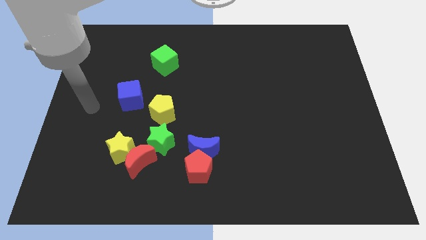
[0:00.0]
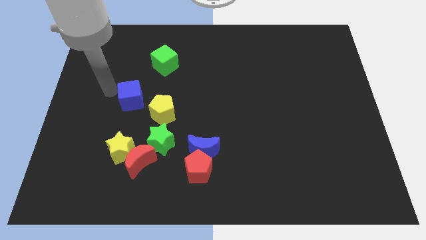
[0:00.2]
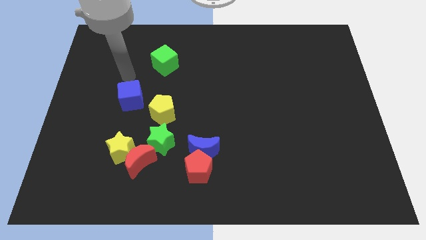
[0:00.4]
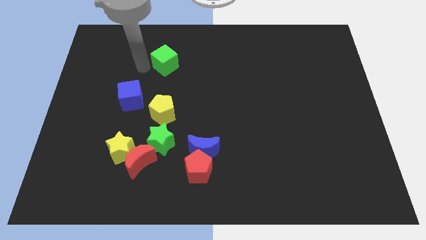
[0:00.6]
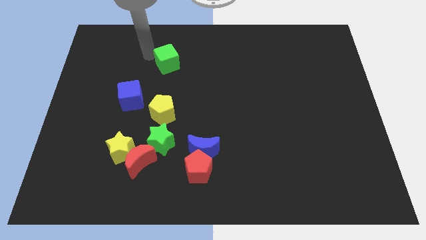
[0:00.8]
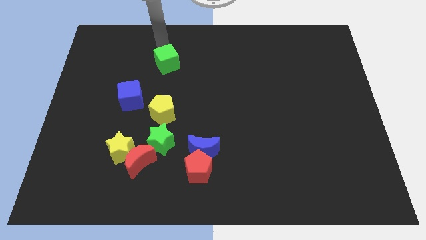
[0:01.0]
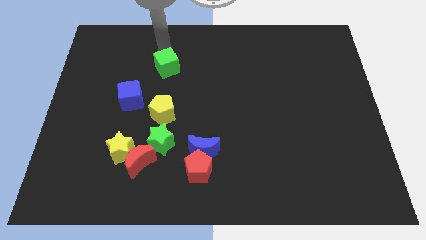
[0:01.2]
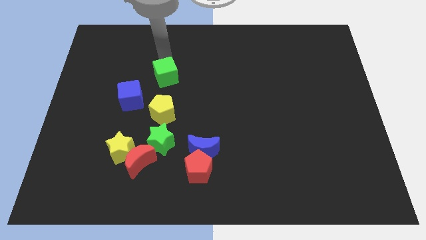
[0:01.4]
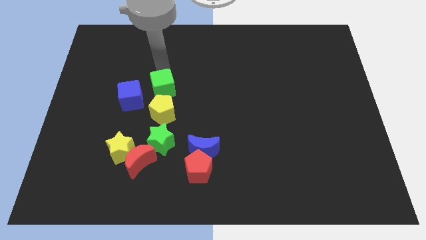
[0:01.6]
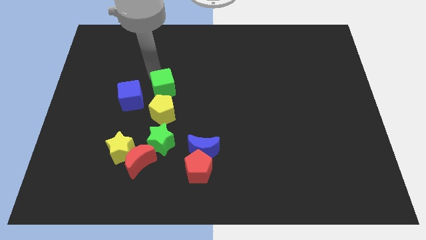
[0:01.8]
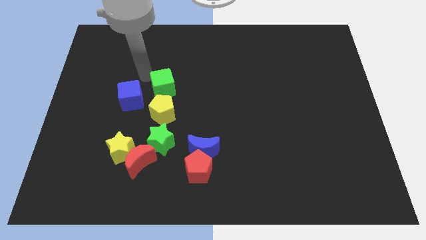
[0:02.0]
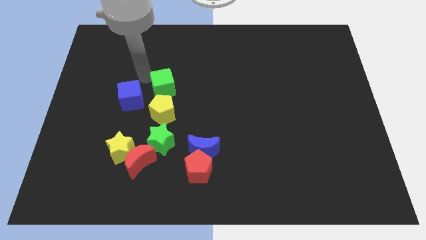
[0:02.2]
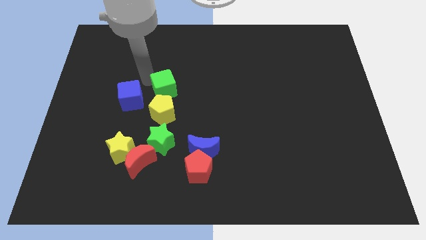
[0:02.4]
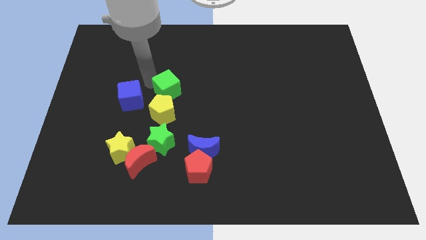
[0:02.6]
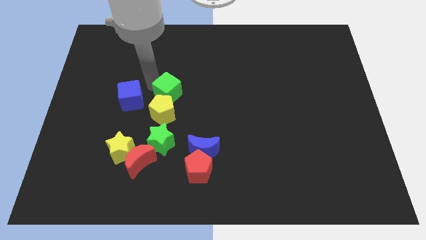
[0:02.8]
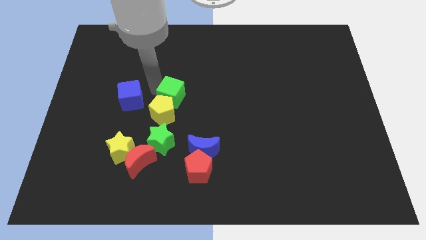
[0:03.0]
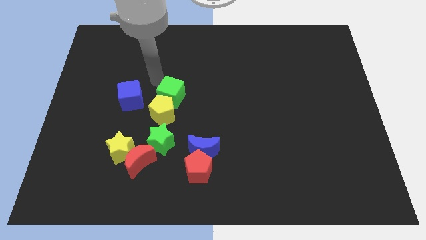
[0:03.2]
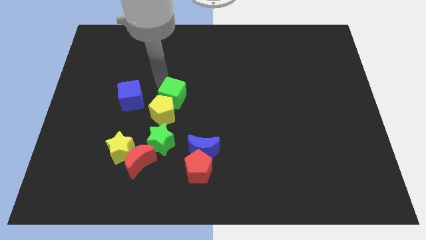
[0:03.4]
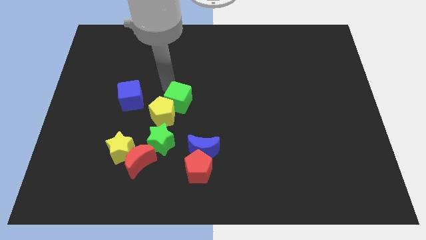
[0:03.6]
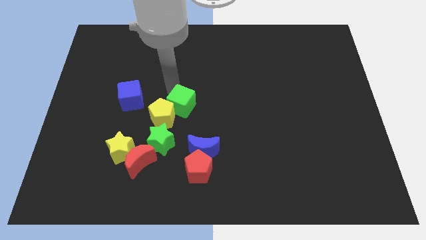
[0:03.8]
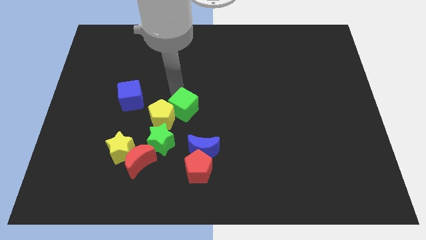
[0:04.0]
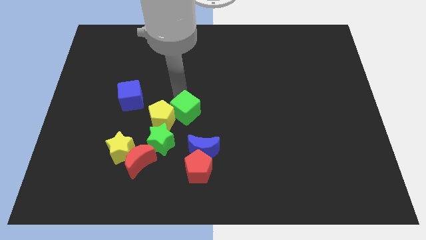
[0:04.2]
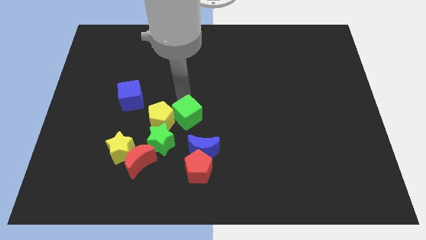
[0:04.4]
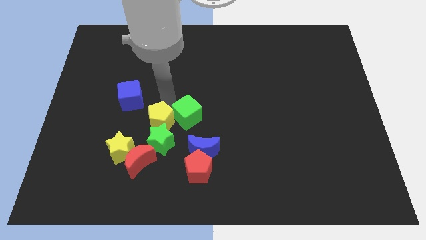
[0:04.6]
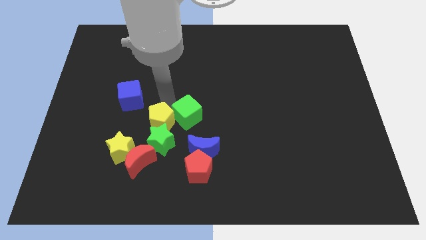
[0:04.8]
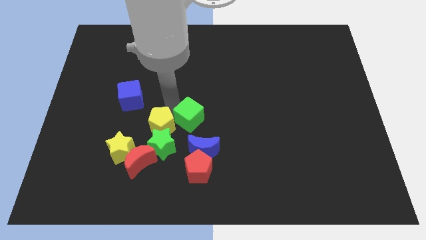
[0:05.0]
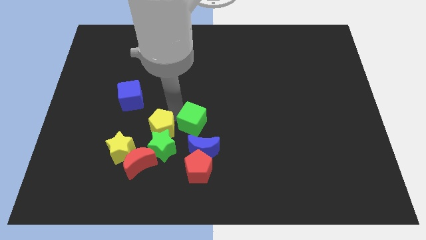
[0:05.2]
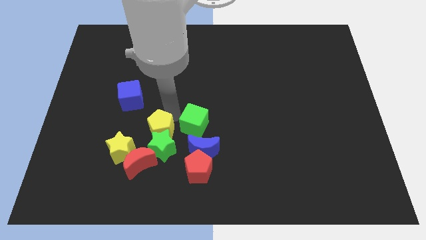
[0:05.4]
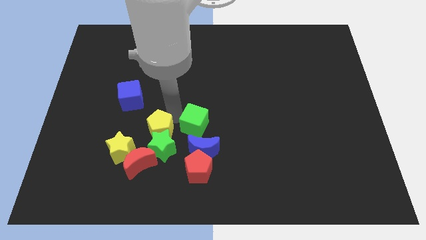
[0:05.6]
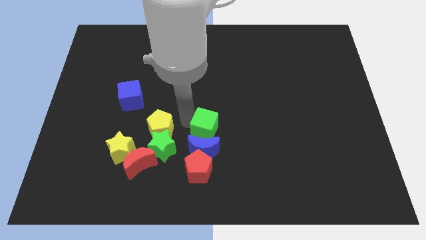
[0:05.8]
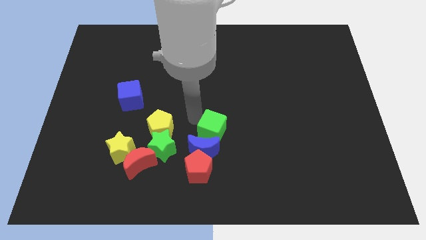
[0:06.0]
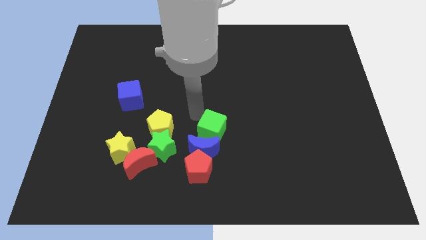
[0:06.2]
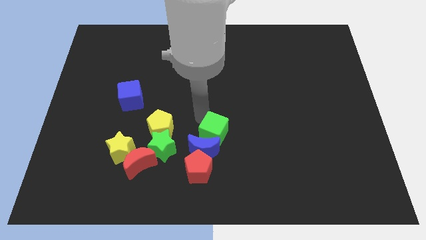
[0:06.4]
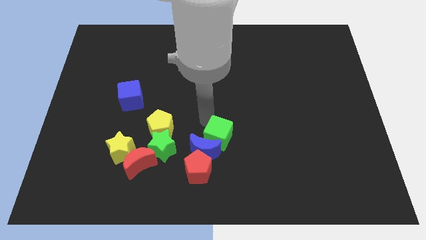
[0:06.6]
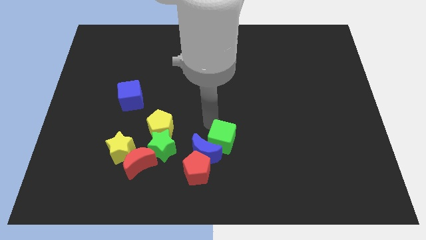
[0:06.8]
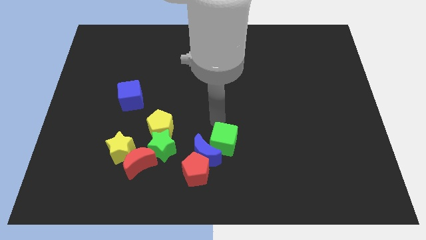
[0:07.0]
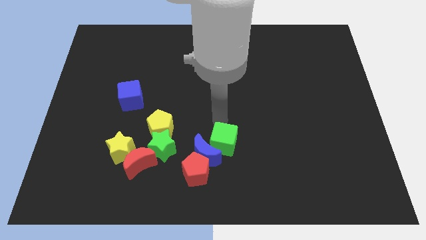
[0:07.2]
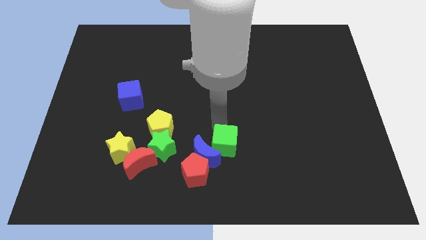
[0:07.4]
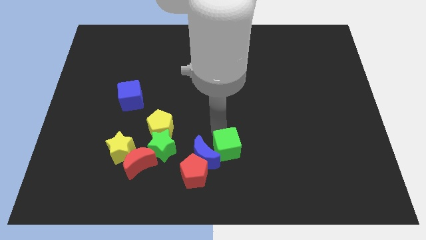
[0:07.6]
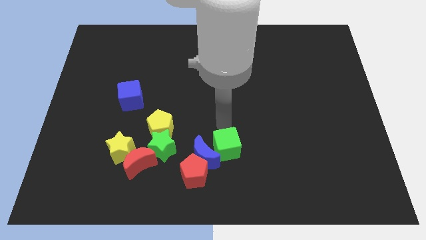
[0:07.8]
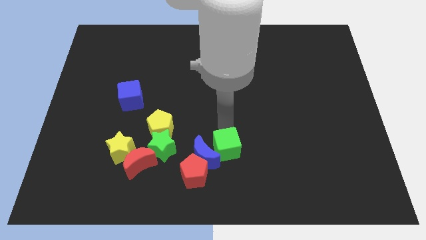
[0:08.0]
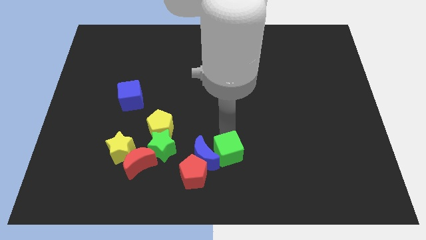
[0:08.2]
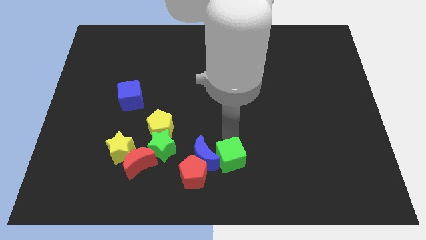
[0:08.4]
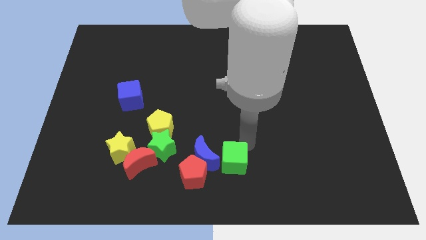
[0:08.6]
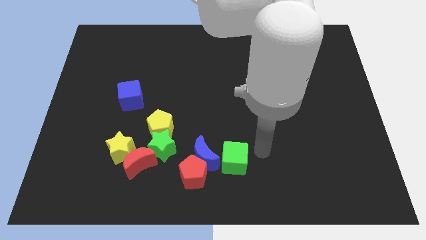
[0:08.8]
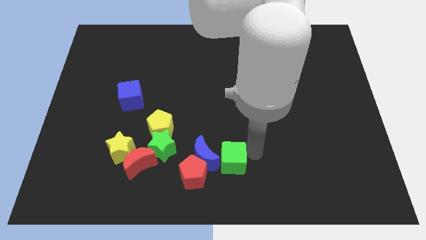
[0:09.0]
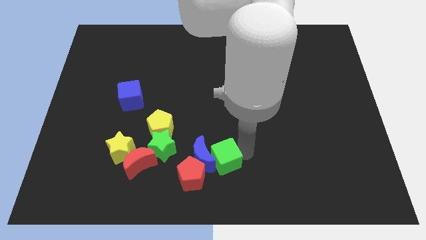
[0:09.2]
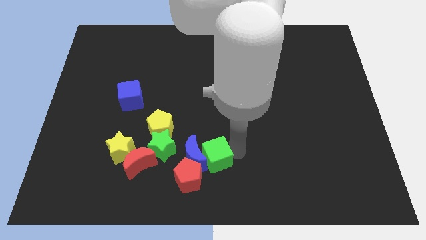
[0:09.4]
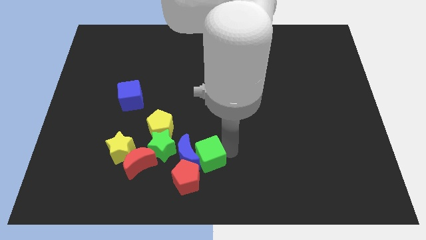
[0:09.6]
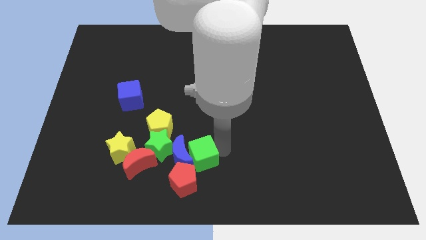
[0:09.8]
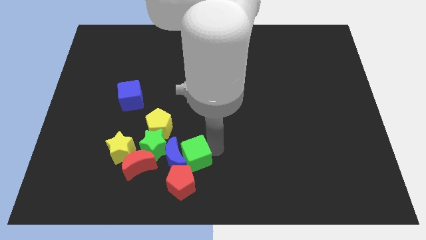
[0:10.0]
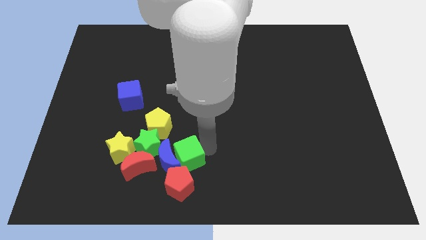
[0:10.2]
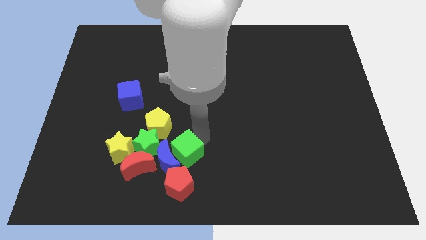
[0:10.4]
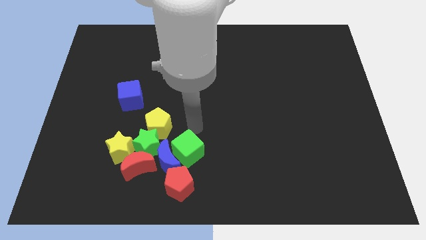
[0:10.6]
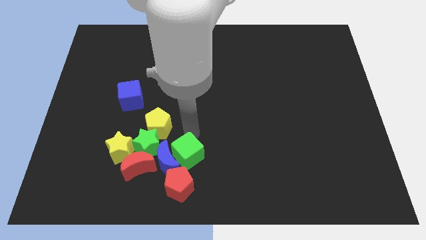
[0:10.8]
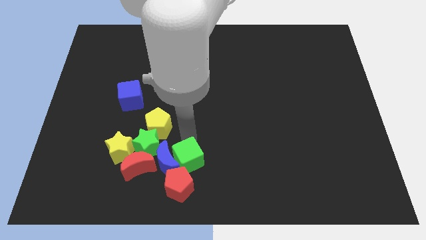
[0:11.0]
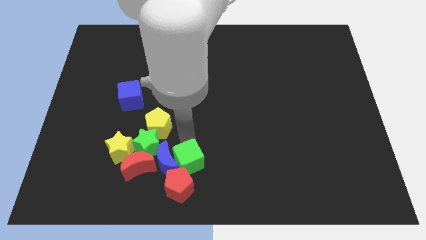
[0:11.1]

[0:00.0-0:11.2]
move the green cube to the red pentagon

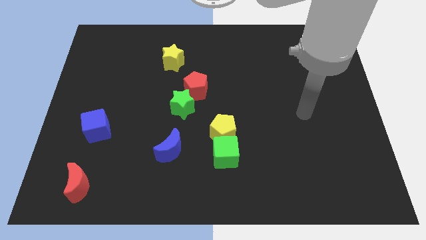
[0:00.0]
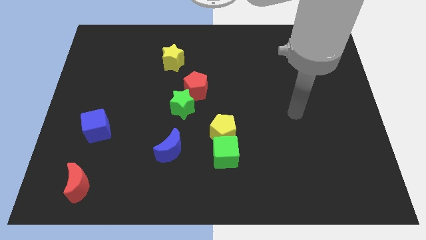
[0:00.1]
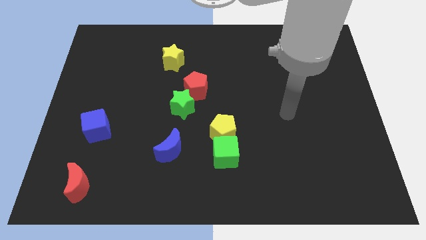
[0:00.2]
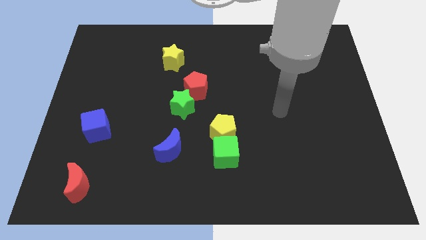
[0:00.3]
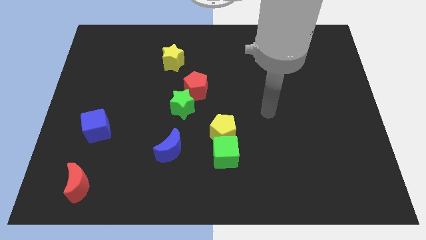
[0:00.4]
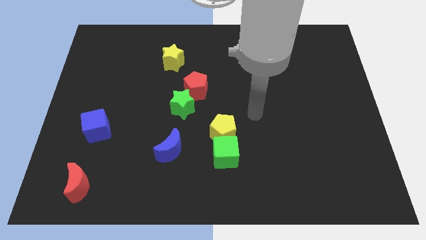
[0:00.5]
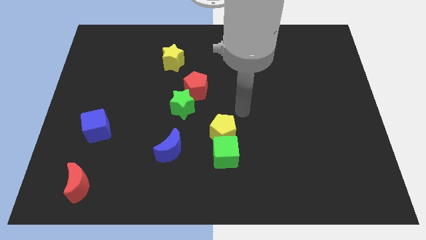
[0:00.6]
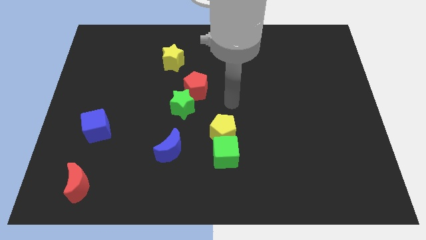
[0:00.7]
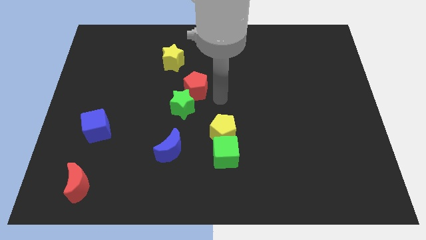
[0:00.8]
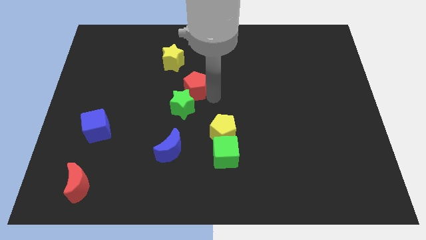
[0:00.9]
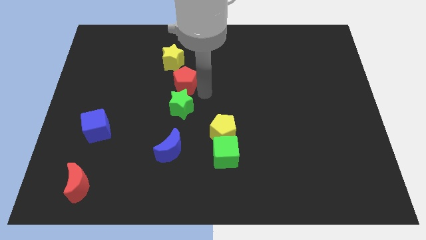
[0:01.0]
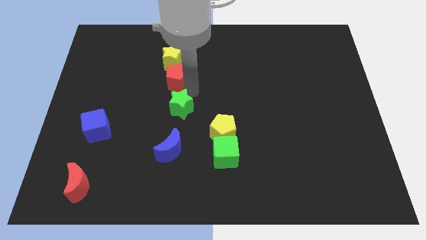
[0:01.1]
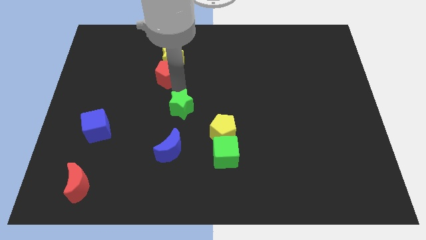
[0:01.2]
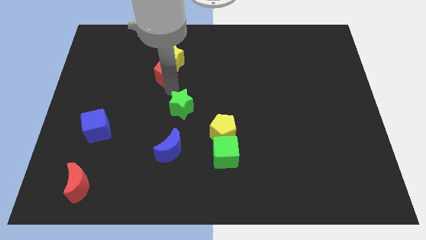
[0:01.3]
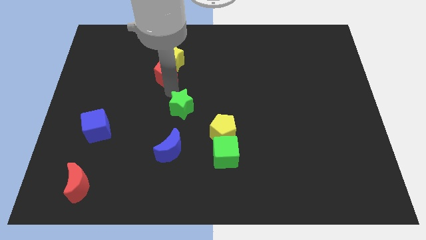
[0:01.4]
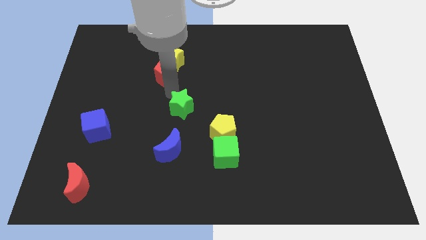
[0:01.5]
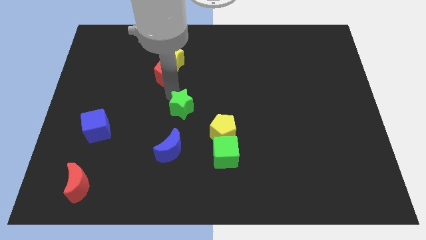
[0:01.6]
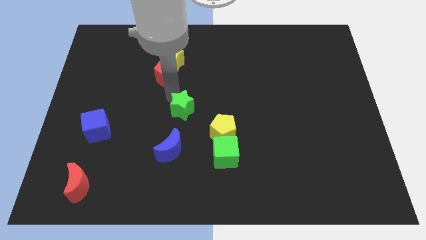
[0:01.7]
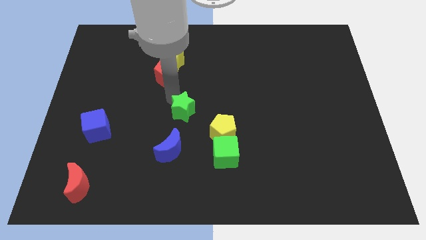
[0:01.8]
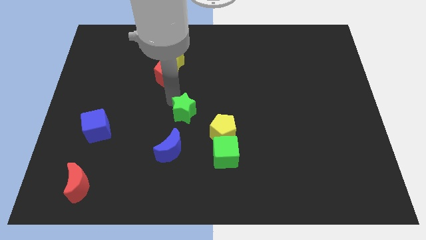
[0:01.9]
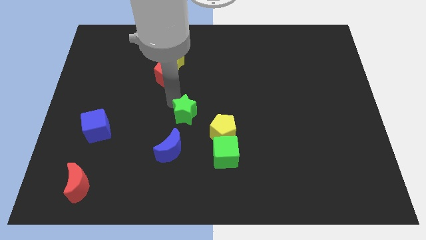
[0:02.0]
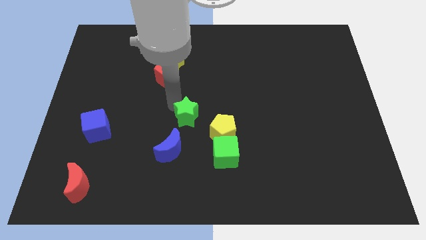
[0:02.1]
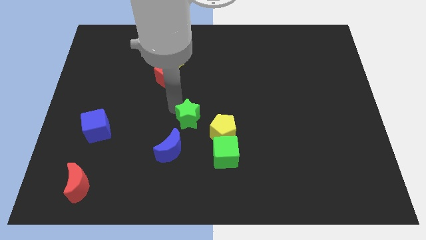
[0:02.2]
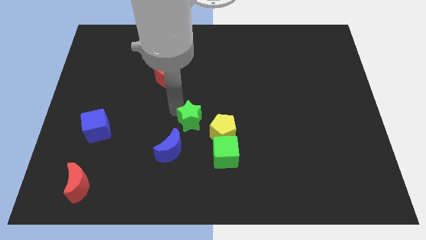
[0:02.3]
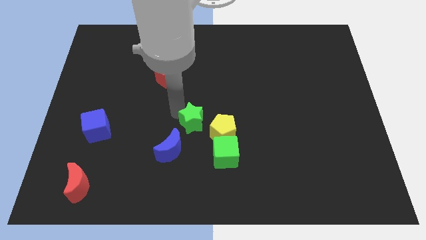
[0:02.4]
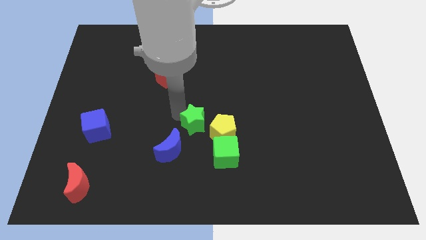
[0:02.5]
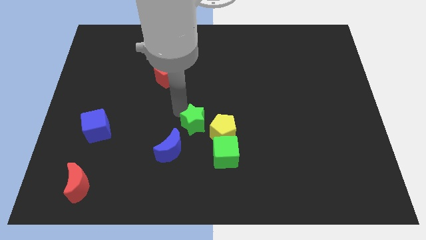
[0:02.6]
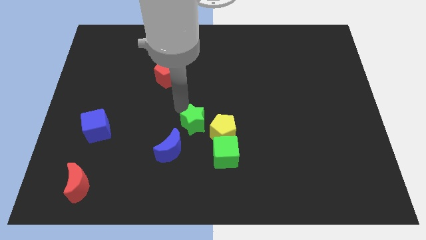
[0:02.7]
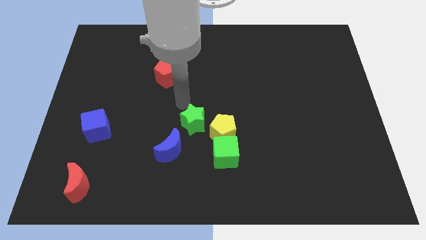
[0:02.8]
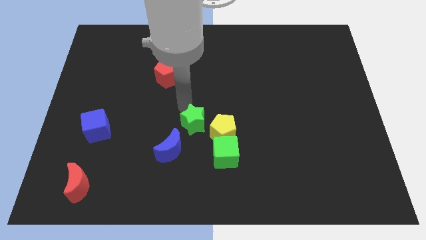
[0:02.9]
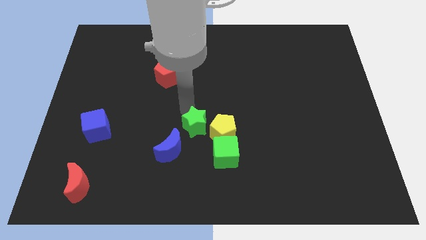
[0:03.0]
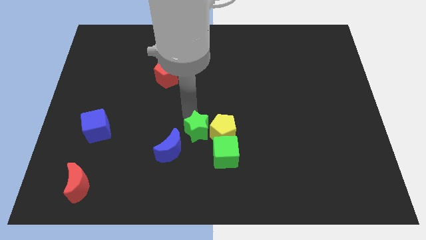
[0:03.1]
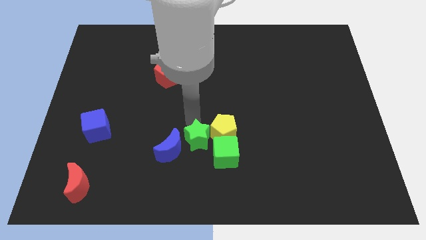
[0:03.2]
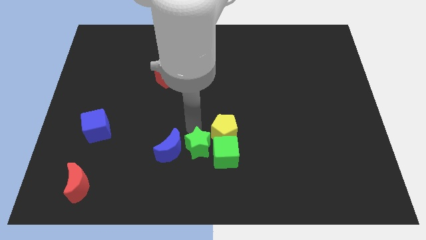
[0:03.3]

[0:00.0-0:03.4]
put the green star to the green cube
